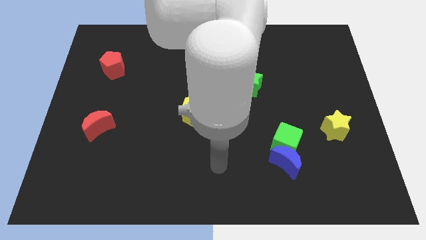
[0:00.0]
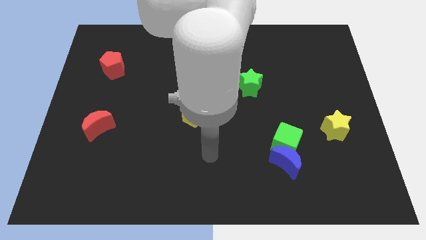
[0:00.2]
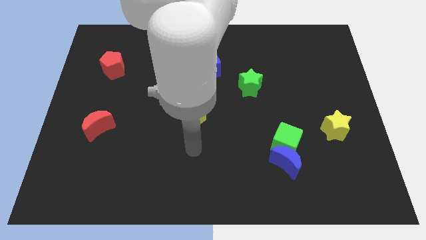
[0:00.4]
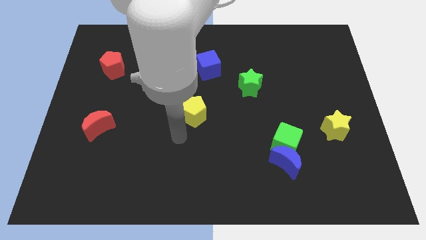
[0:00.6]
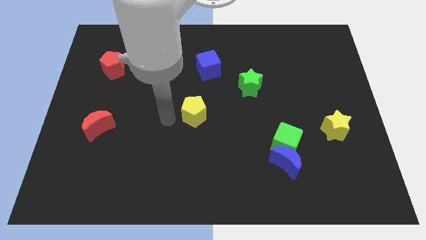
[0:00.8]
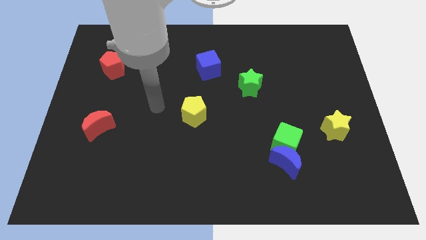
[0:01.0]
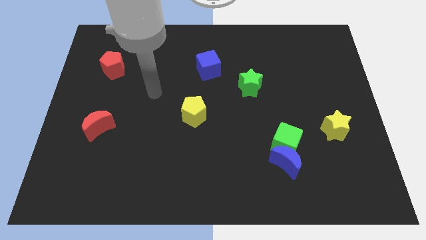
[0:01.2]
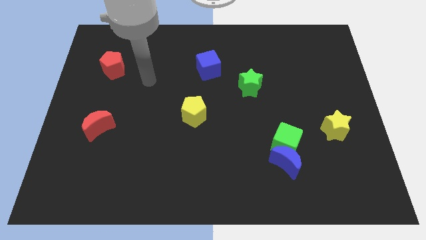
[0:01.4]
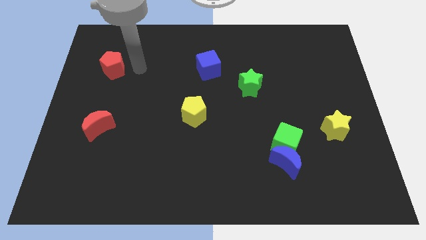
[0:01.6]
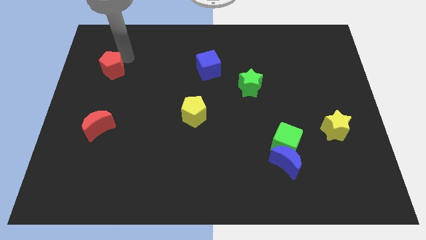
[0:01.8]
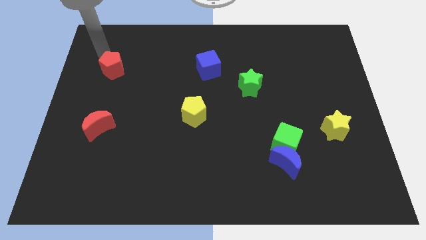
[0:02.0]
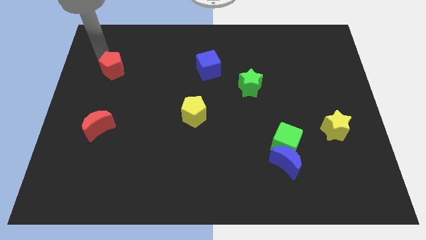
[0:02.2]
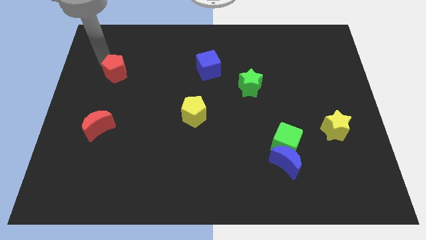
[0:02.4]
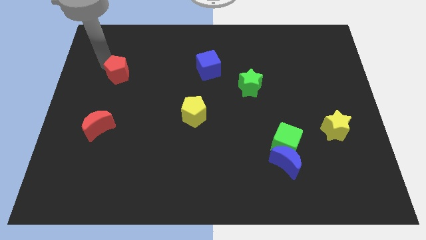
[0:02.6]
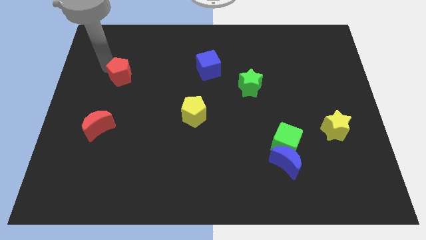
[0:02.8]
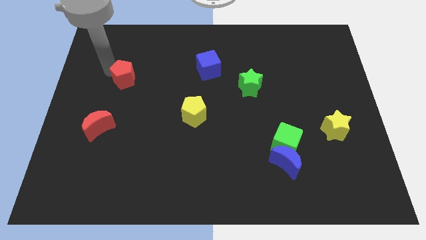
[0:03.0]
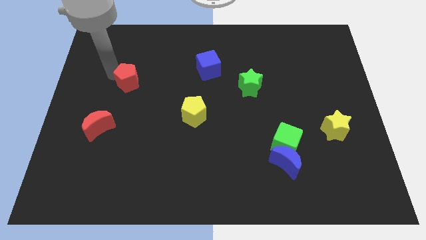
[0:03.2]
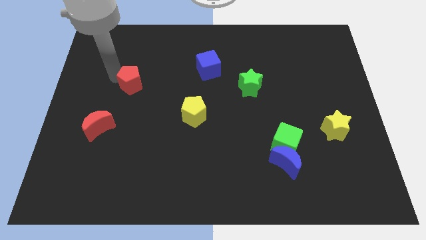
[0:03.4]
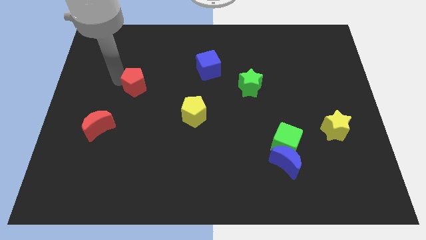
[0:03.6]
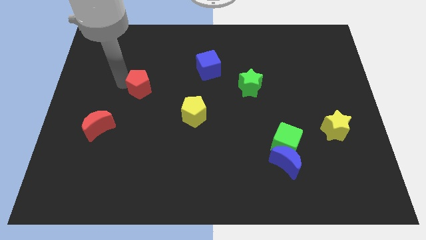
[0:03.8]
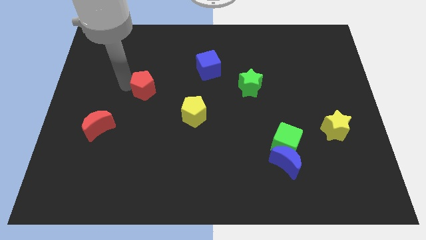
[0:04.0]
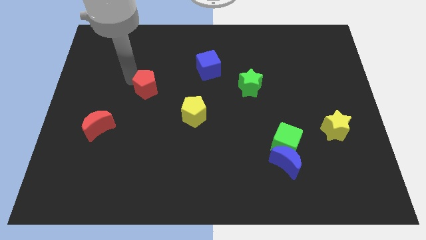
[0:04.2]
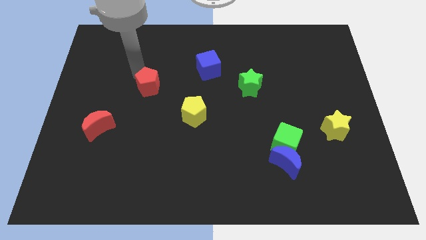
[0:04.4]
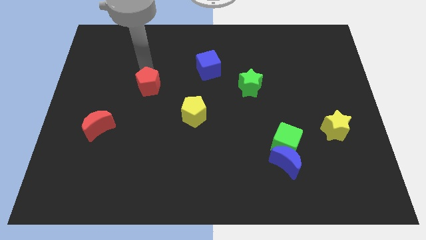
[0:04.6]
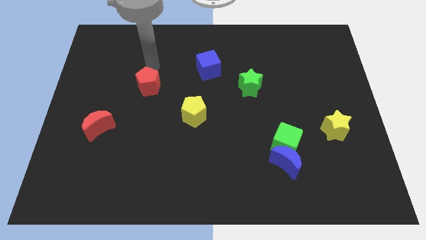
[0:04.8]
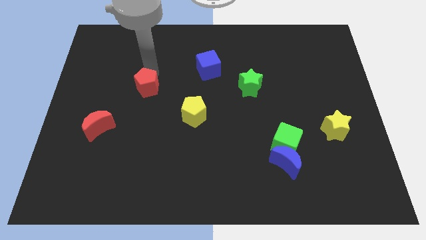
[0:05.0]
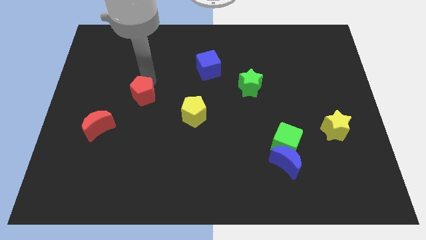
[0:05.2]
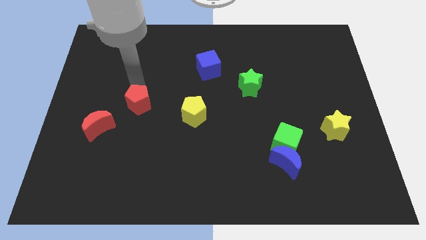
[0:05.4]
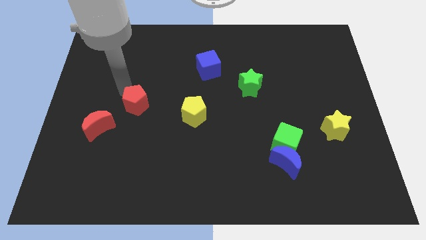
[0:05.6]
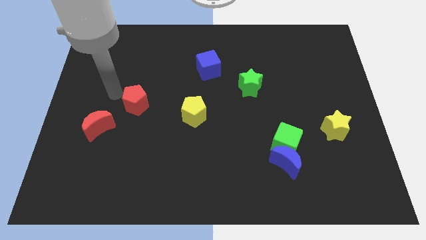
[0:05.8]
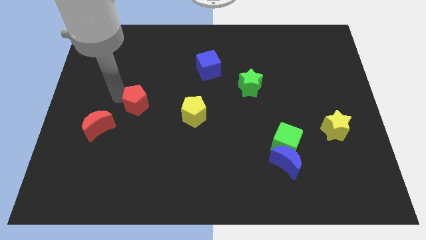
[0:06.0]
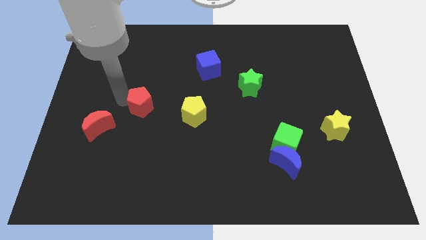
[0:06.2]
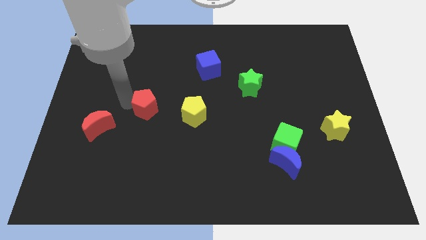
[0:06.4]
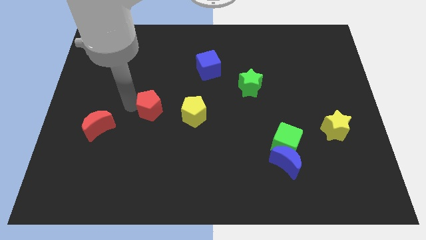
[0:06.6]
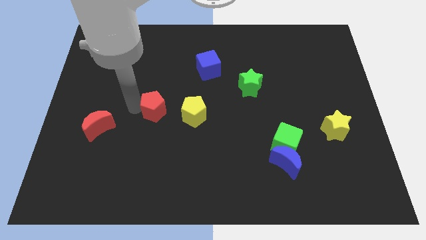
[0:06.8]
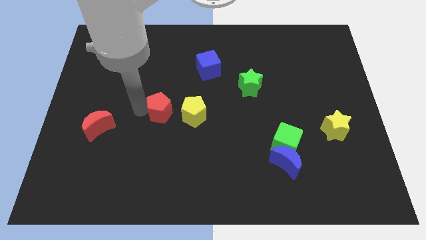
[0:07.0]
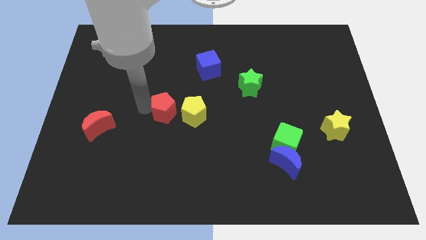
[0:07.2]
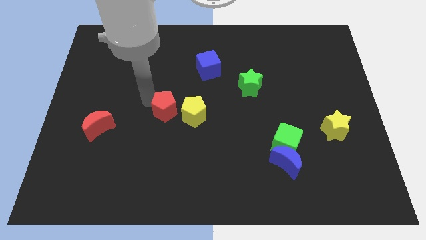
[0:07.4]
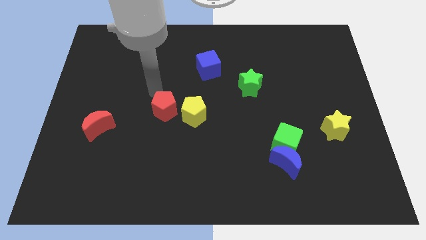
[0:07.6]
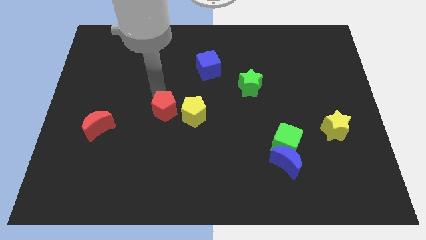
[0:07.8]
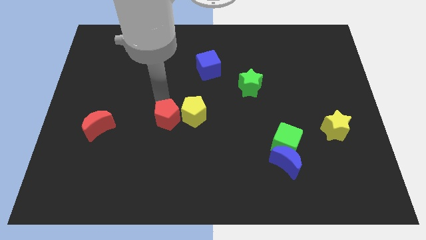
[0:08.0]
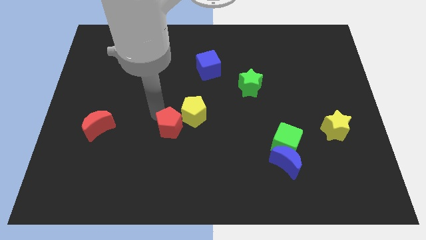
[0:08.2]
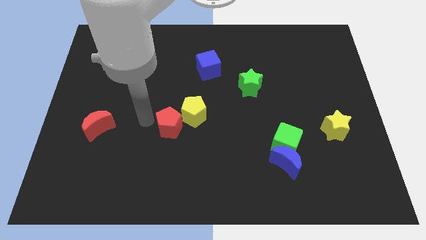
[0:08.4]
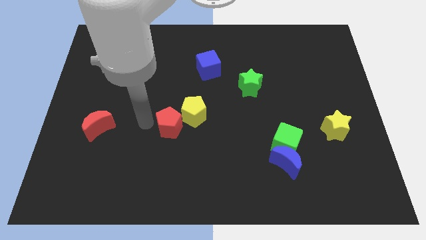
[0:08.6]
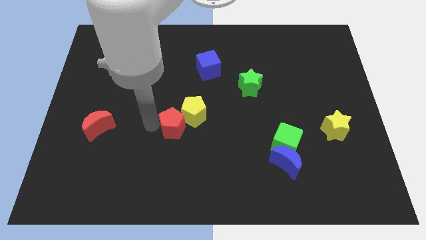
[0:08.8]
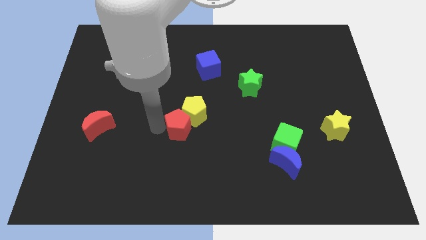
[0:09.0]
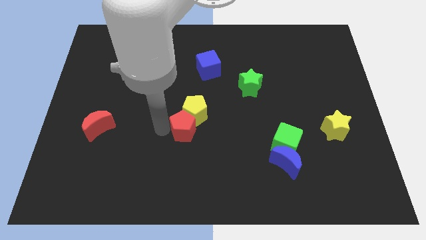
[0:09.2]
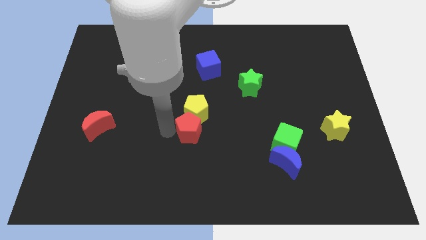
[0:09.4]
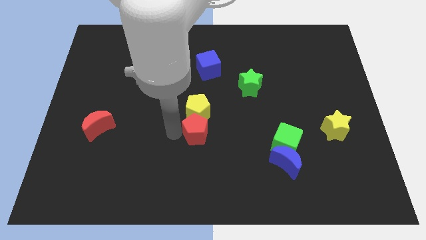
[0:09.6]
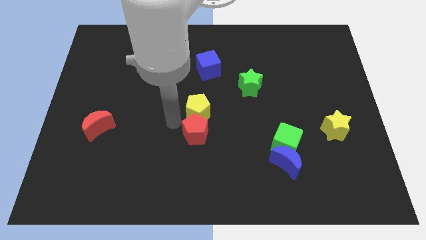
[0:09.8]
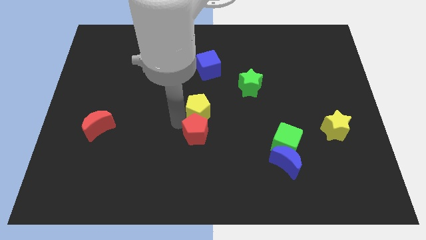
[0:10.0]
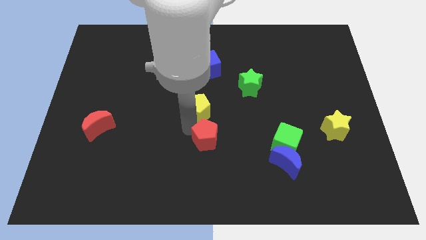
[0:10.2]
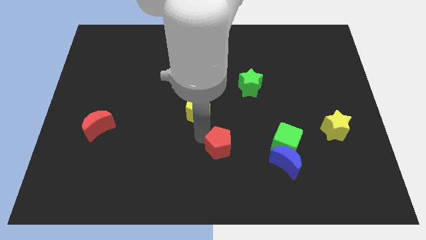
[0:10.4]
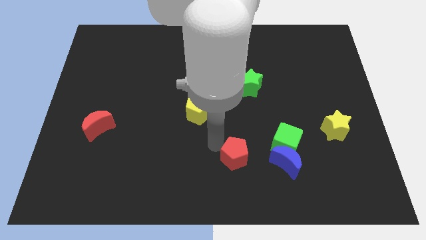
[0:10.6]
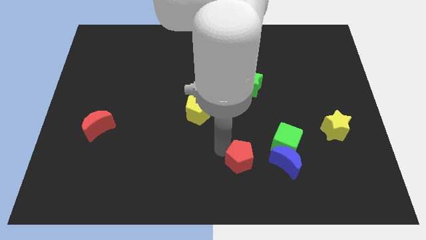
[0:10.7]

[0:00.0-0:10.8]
slide the red pentagon diagonally down and to the left of the green cube

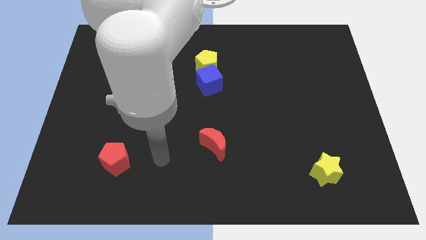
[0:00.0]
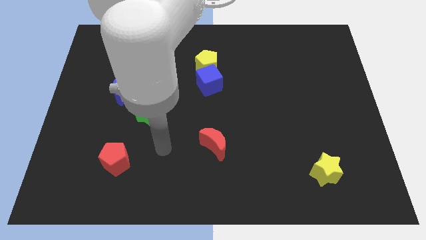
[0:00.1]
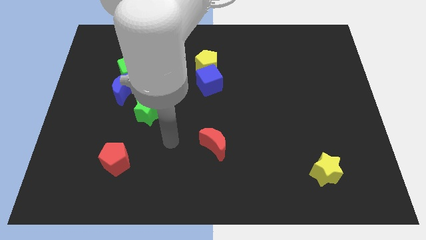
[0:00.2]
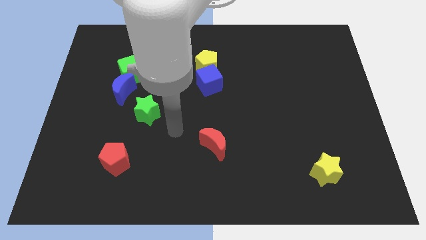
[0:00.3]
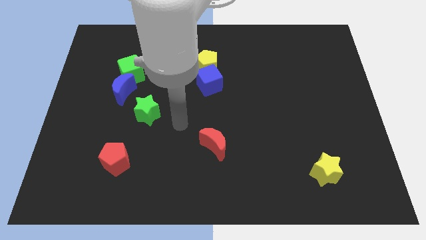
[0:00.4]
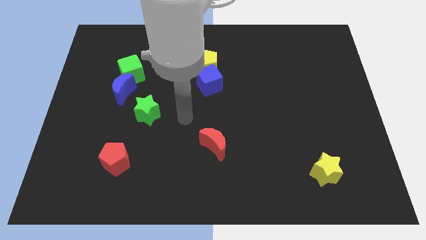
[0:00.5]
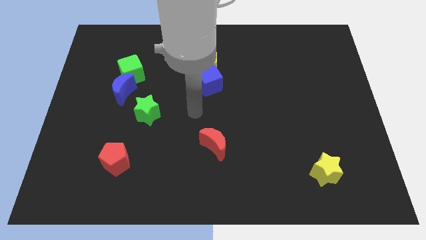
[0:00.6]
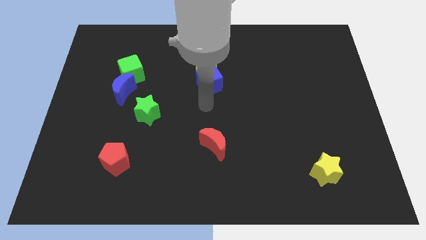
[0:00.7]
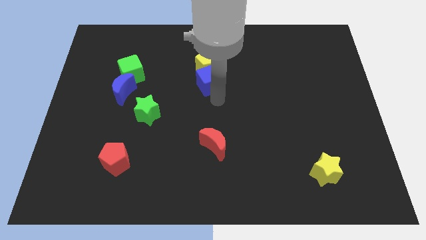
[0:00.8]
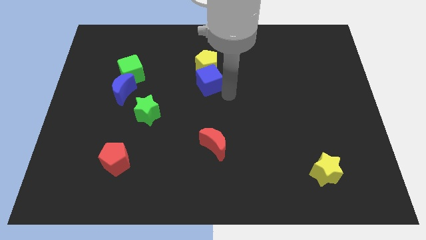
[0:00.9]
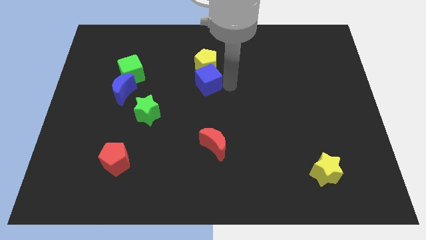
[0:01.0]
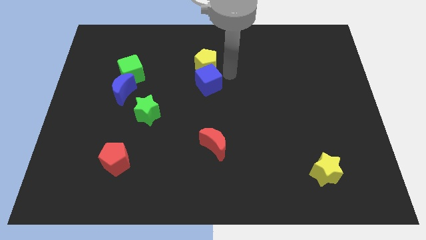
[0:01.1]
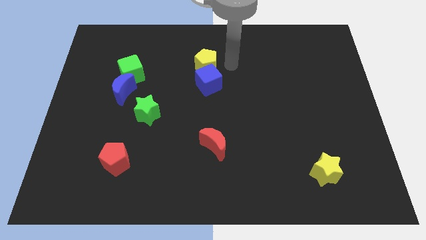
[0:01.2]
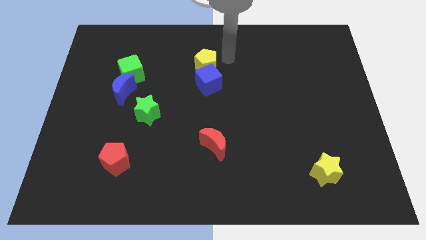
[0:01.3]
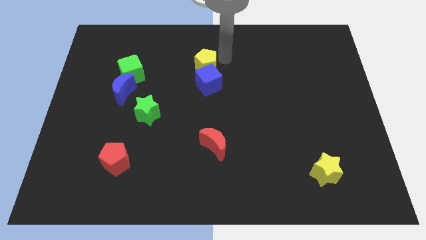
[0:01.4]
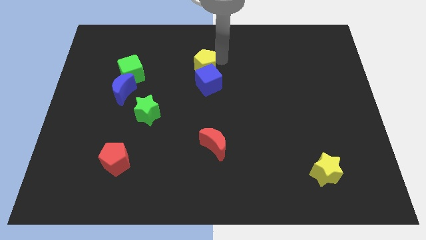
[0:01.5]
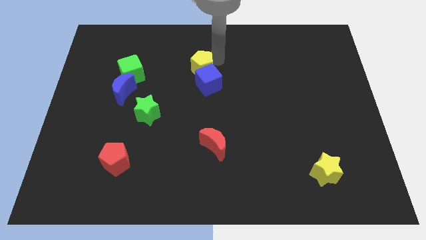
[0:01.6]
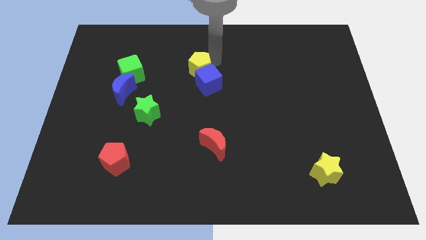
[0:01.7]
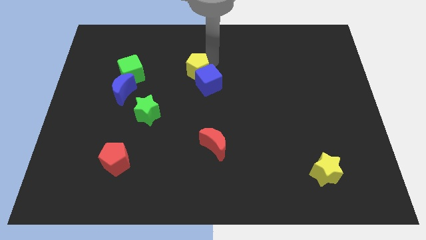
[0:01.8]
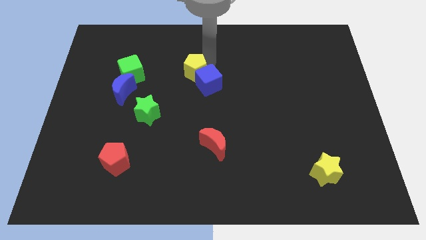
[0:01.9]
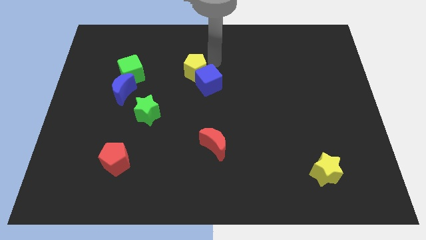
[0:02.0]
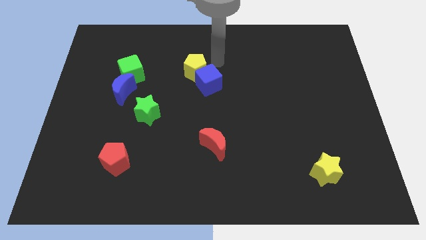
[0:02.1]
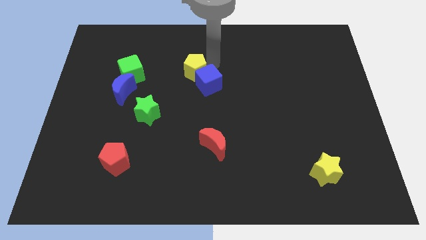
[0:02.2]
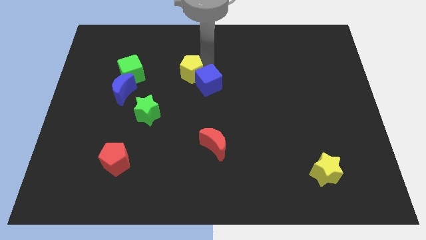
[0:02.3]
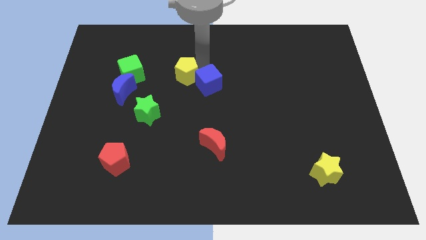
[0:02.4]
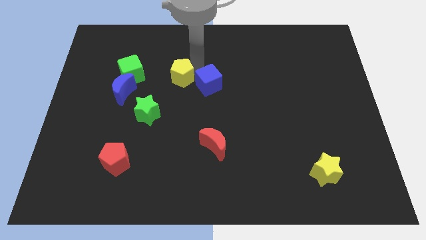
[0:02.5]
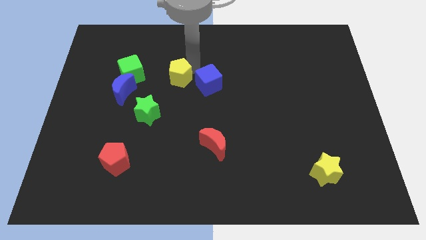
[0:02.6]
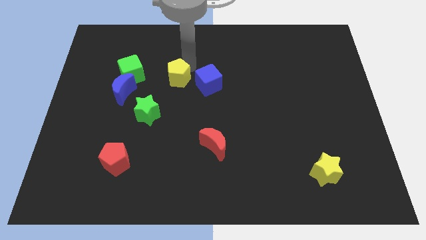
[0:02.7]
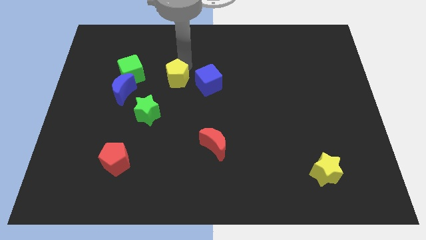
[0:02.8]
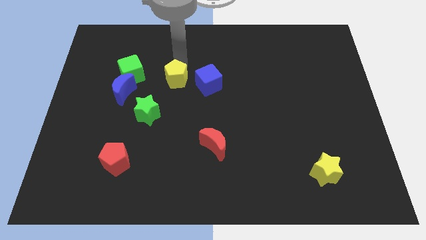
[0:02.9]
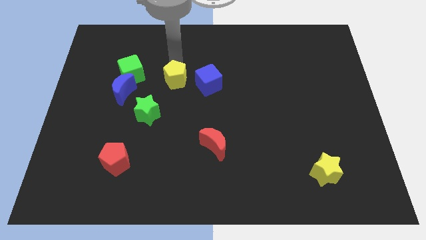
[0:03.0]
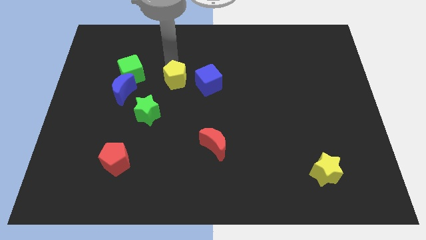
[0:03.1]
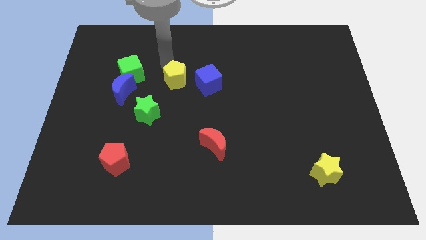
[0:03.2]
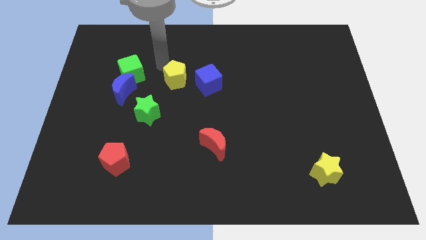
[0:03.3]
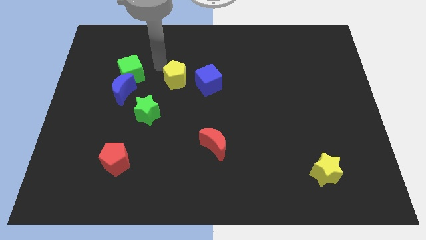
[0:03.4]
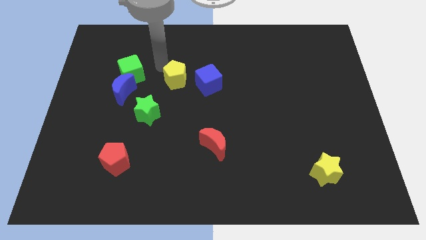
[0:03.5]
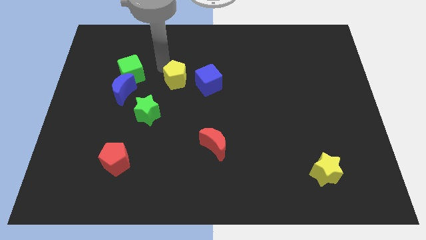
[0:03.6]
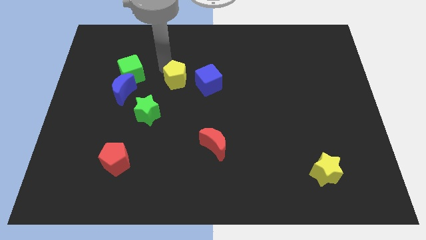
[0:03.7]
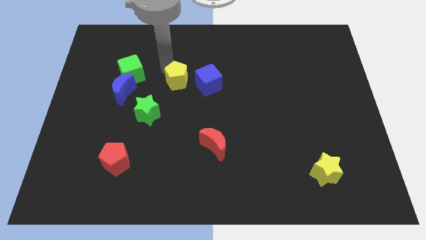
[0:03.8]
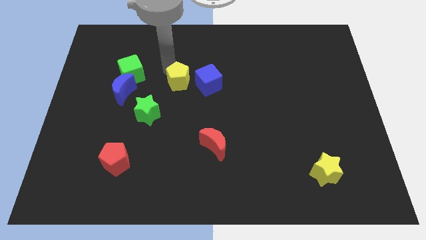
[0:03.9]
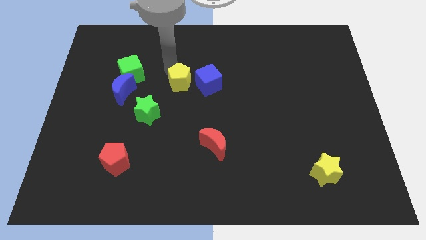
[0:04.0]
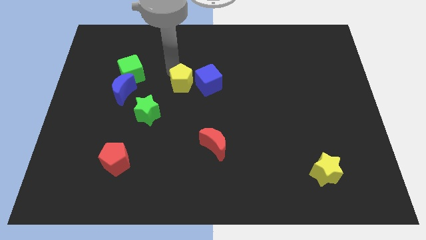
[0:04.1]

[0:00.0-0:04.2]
move the yellow pentagon to the bottom left of the blue cube
